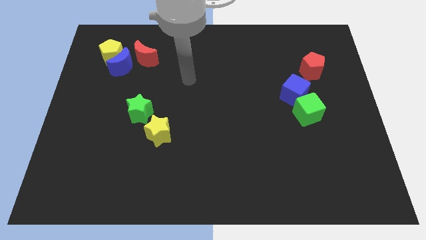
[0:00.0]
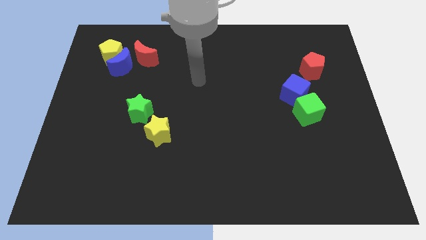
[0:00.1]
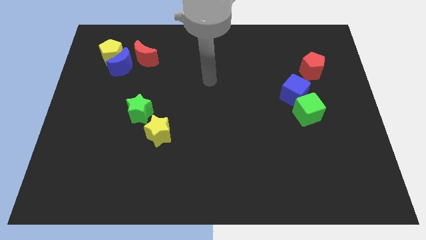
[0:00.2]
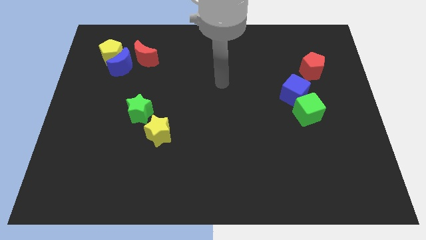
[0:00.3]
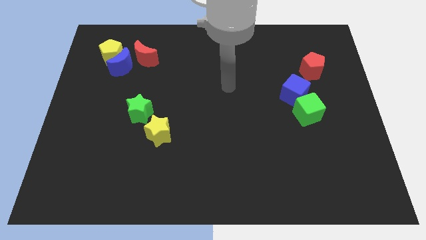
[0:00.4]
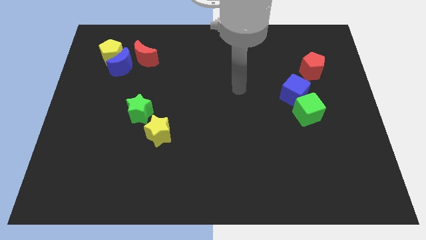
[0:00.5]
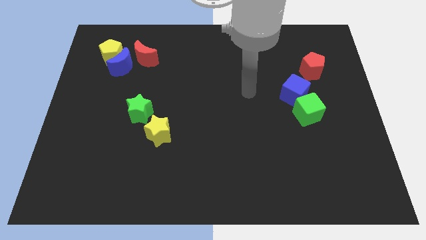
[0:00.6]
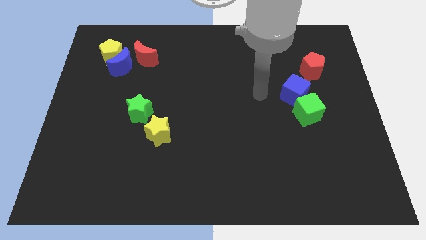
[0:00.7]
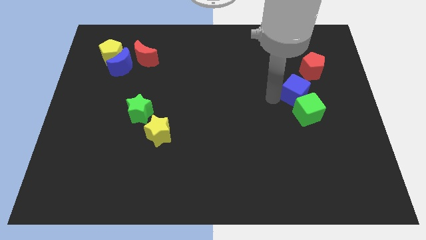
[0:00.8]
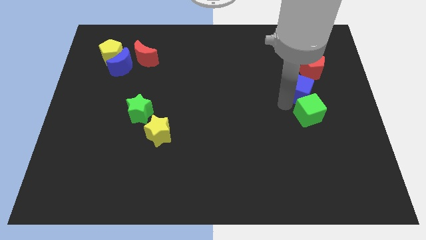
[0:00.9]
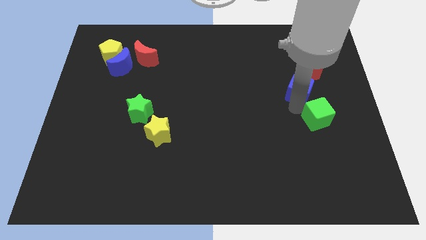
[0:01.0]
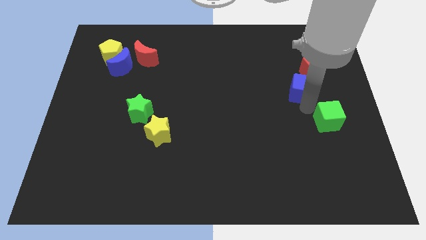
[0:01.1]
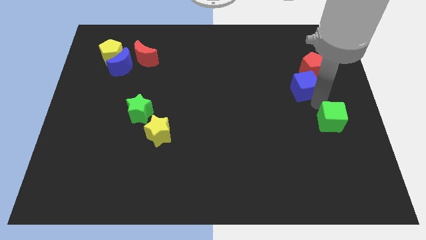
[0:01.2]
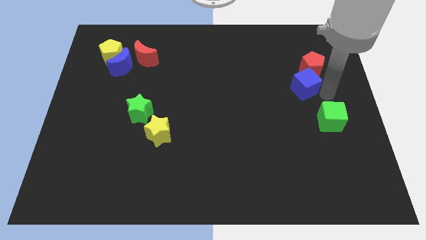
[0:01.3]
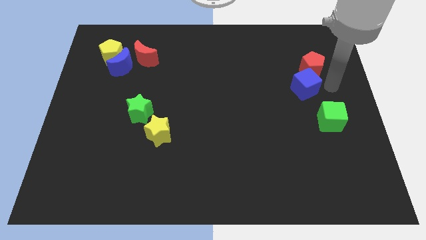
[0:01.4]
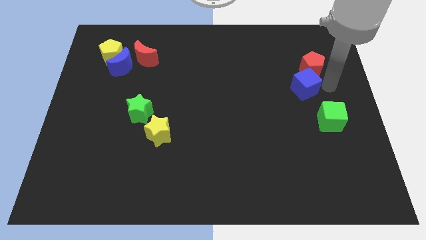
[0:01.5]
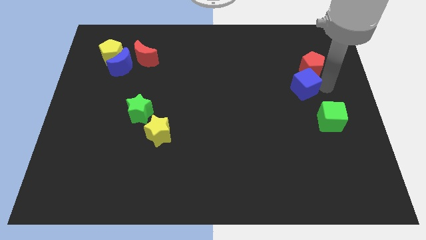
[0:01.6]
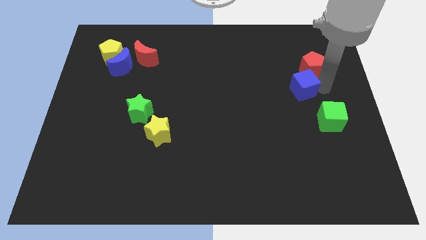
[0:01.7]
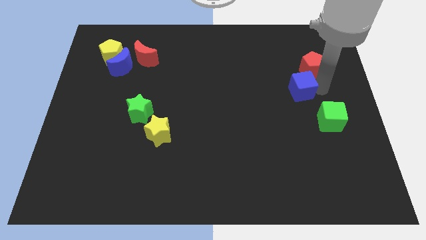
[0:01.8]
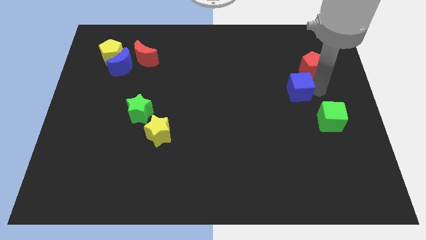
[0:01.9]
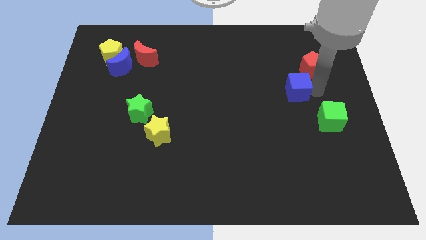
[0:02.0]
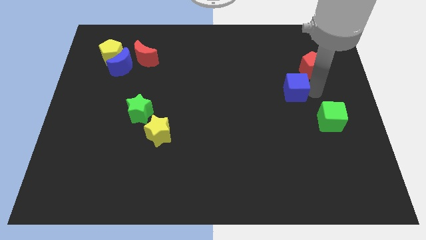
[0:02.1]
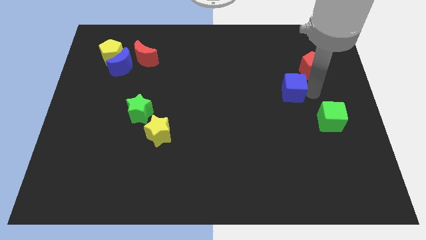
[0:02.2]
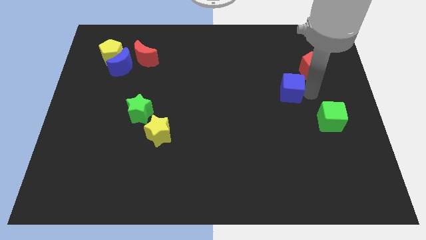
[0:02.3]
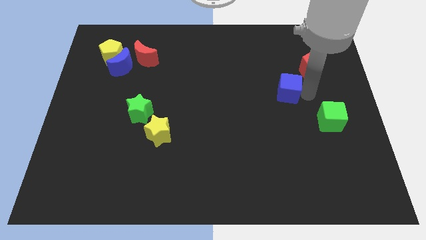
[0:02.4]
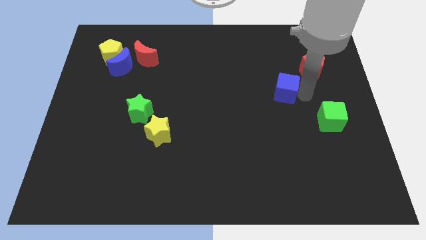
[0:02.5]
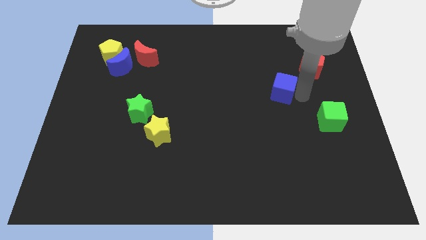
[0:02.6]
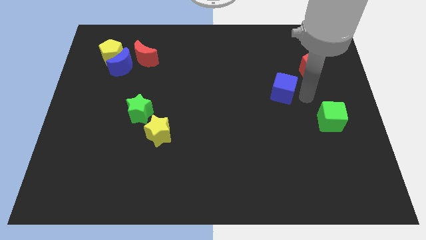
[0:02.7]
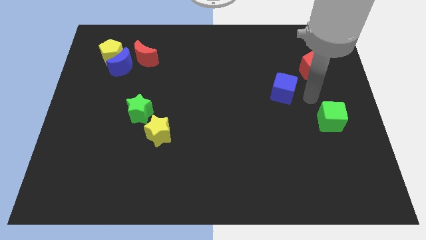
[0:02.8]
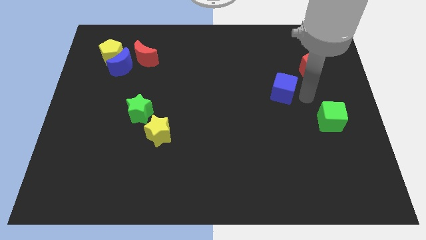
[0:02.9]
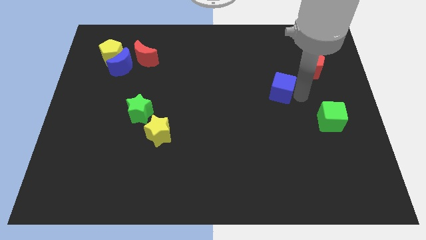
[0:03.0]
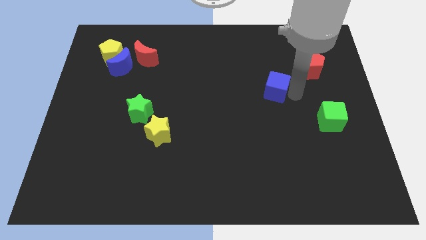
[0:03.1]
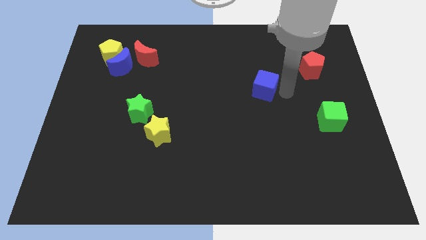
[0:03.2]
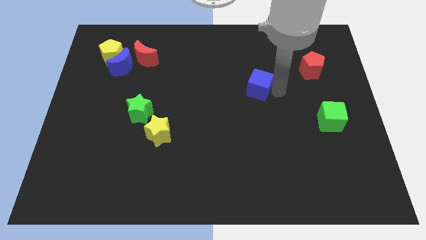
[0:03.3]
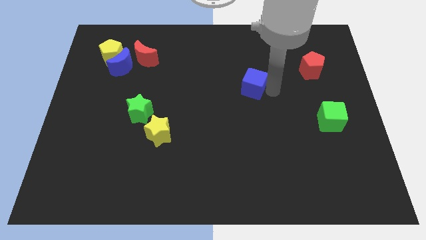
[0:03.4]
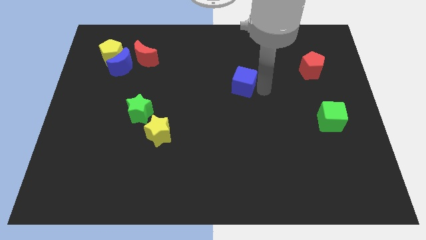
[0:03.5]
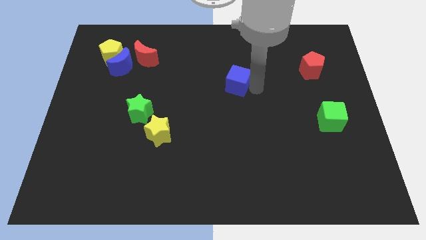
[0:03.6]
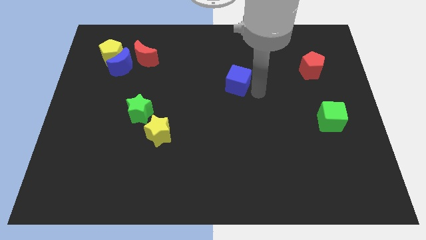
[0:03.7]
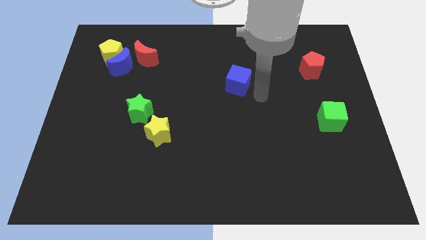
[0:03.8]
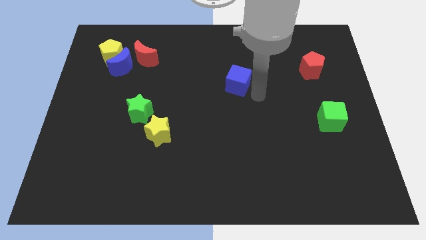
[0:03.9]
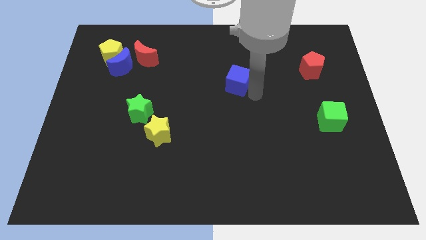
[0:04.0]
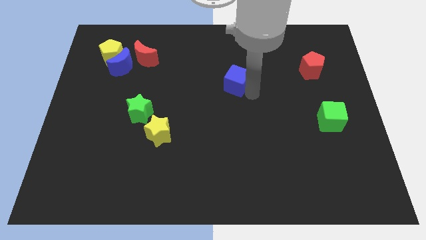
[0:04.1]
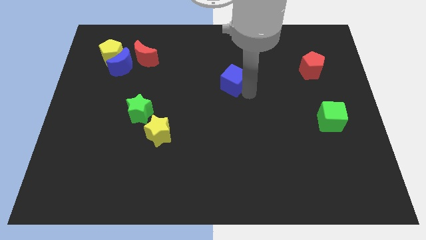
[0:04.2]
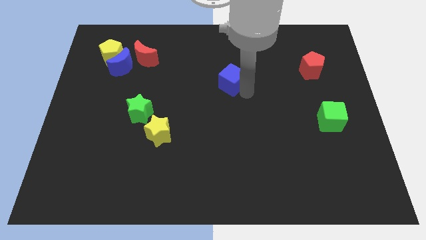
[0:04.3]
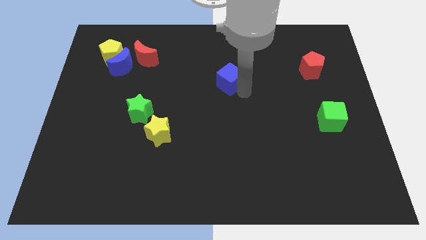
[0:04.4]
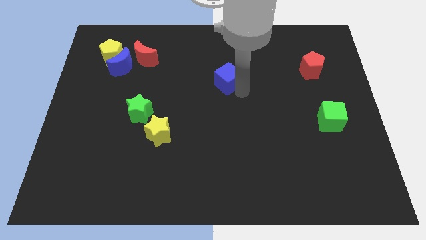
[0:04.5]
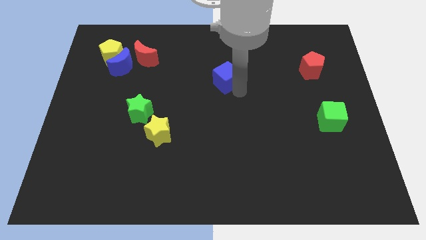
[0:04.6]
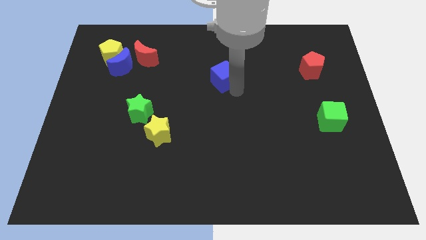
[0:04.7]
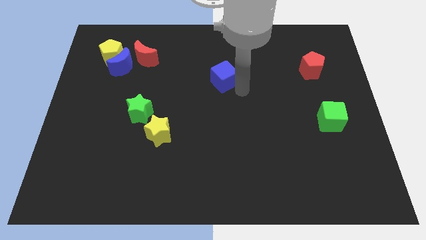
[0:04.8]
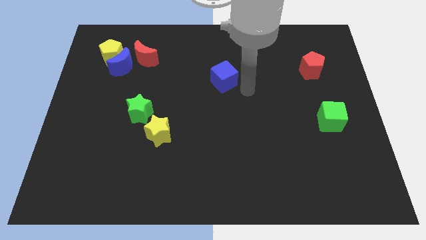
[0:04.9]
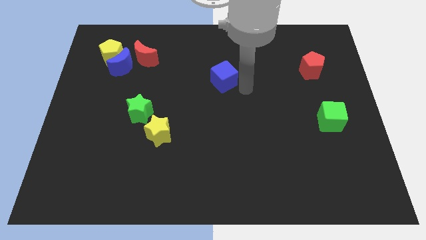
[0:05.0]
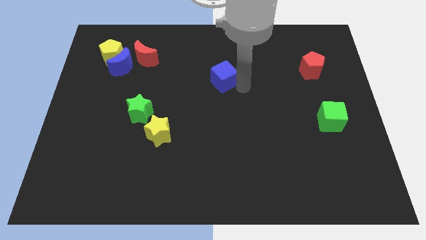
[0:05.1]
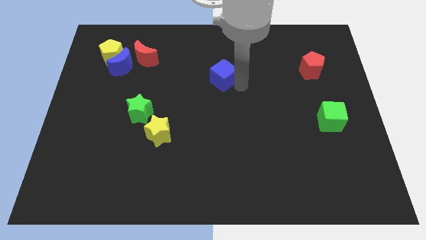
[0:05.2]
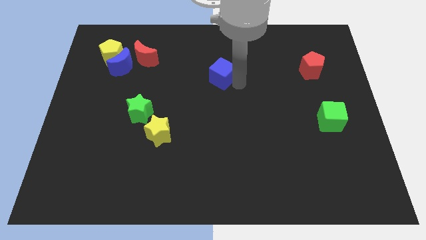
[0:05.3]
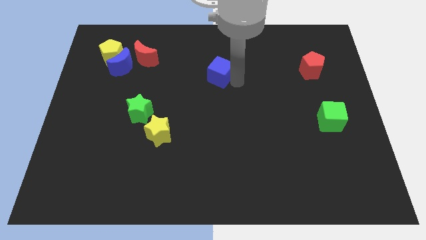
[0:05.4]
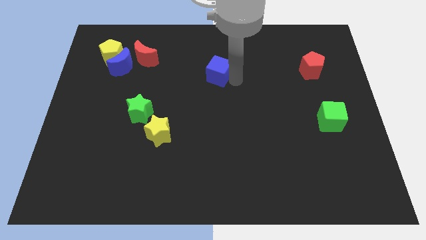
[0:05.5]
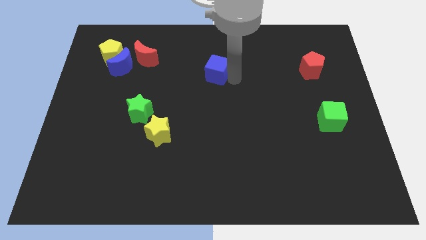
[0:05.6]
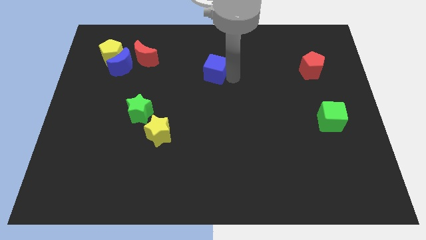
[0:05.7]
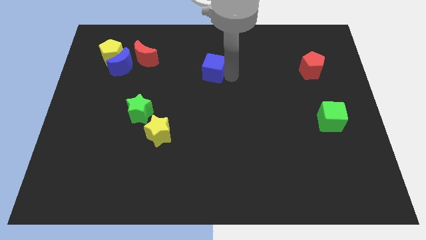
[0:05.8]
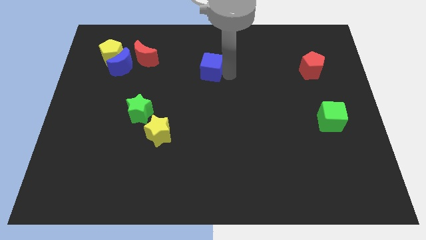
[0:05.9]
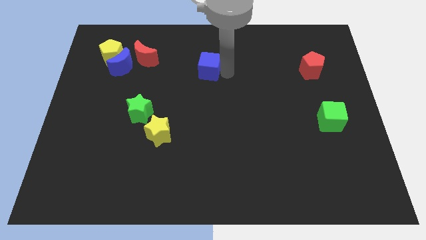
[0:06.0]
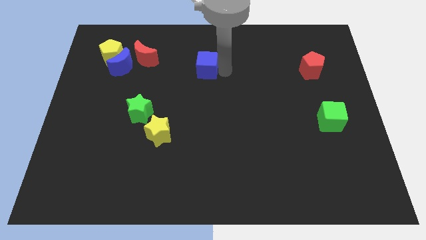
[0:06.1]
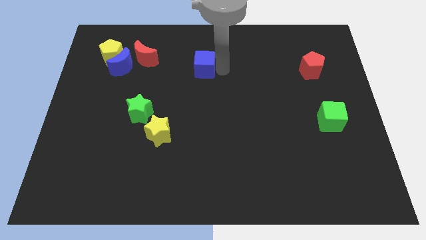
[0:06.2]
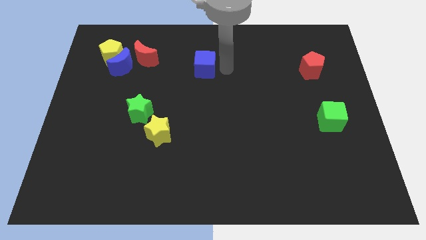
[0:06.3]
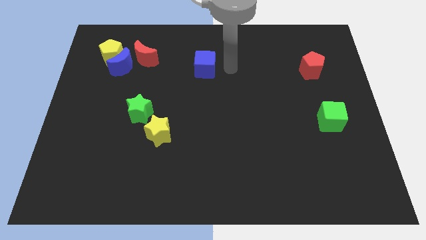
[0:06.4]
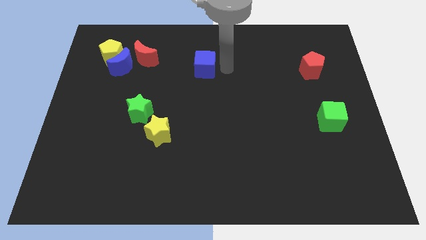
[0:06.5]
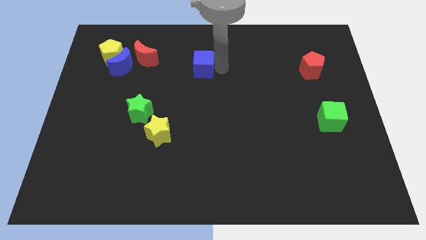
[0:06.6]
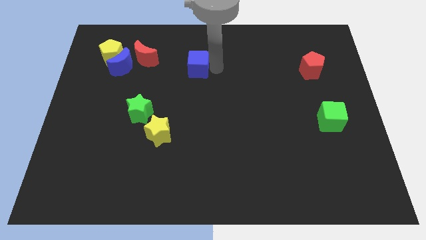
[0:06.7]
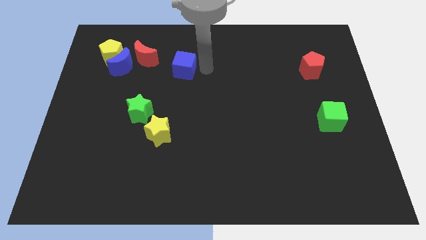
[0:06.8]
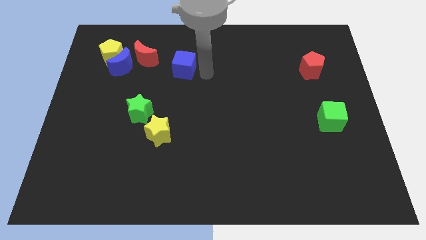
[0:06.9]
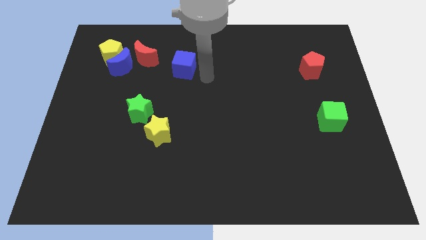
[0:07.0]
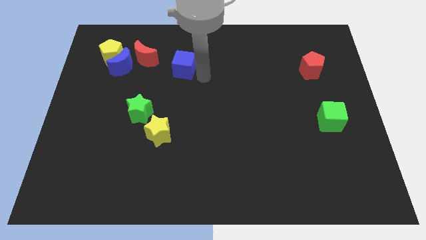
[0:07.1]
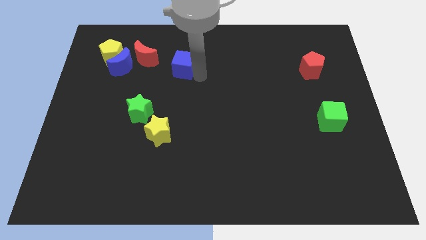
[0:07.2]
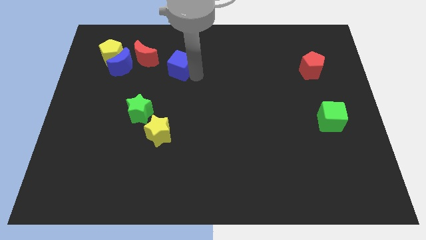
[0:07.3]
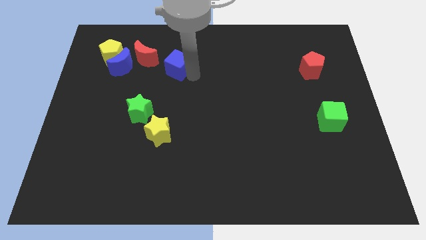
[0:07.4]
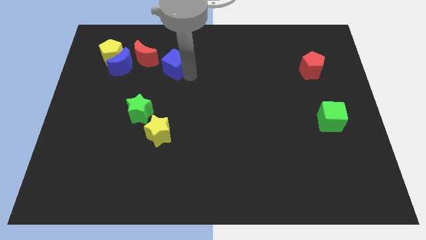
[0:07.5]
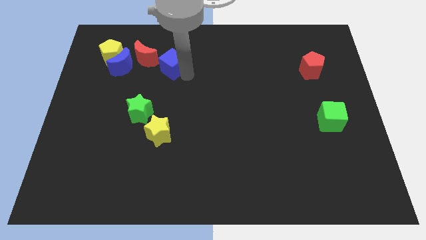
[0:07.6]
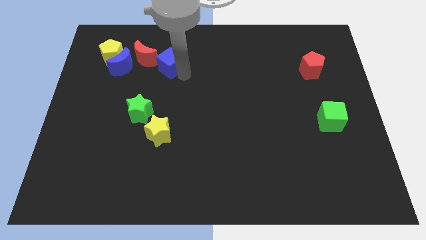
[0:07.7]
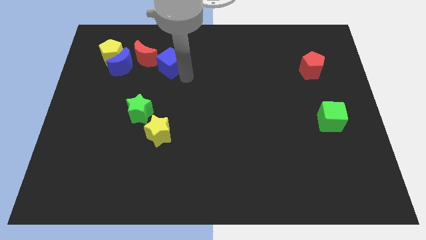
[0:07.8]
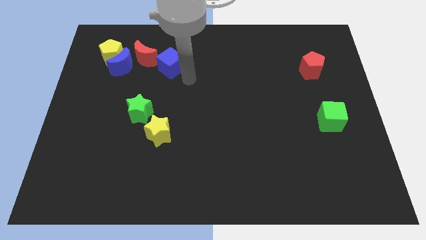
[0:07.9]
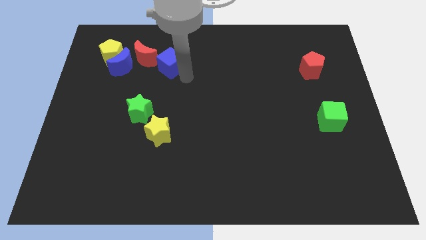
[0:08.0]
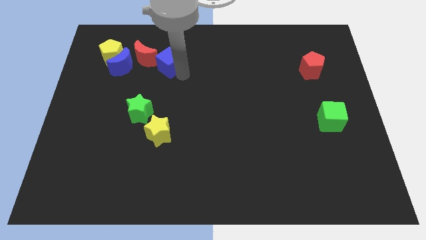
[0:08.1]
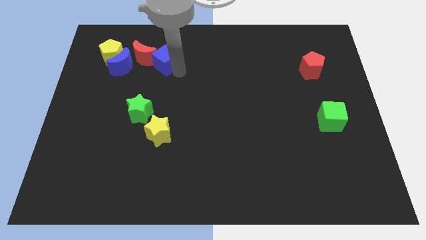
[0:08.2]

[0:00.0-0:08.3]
push the blue cube to the red moon
